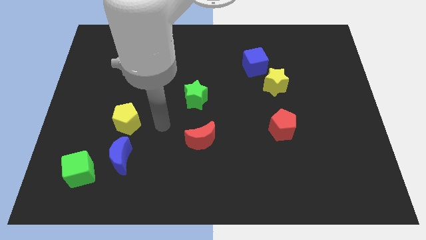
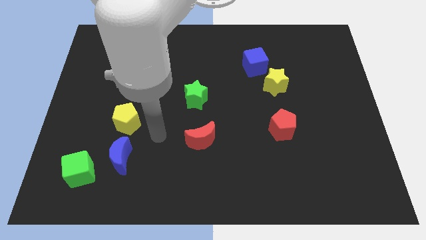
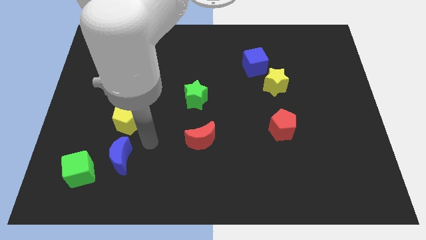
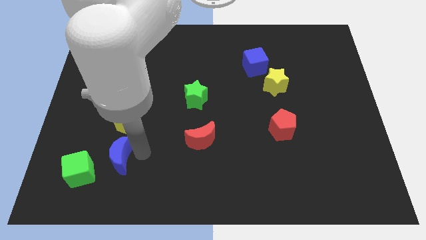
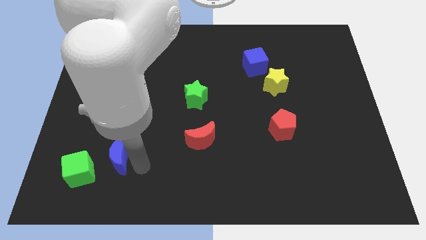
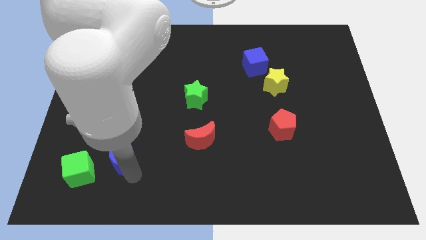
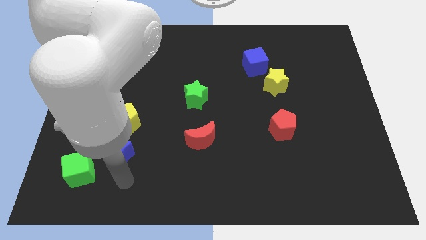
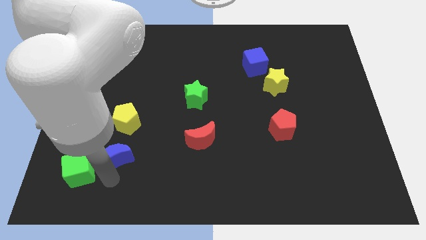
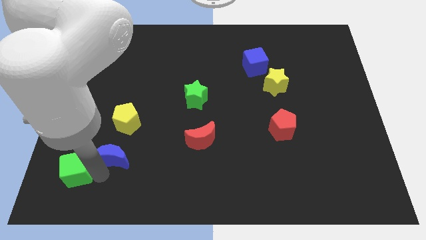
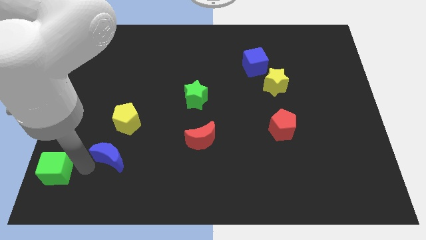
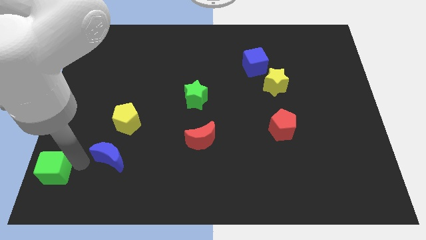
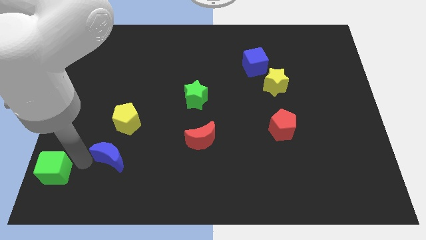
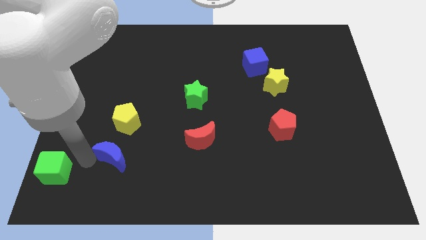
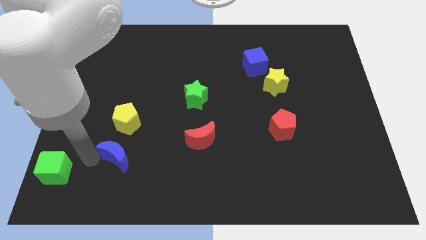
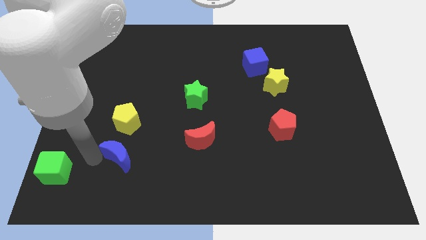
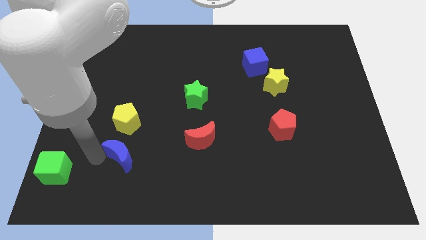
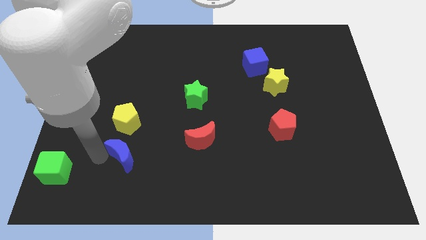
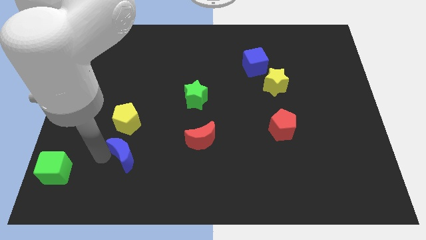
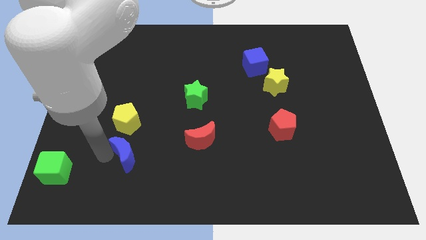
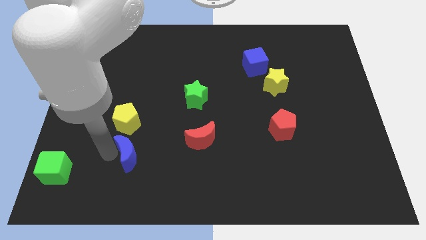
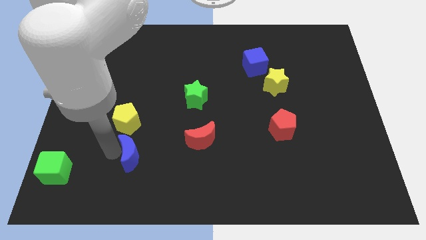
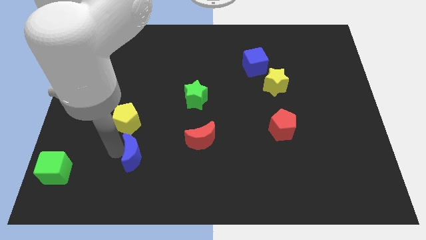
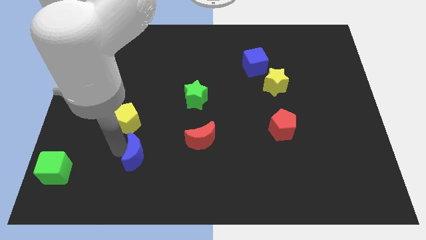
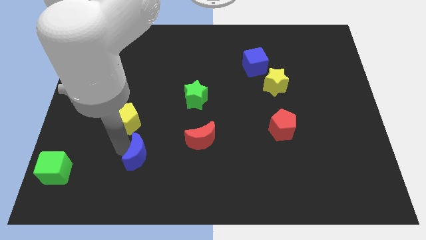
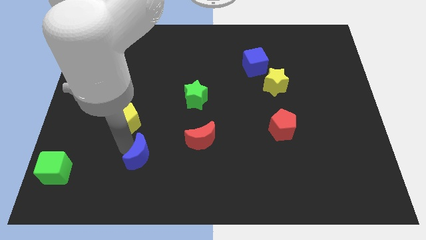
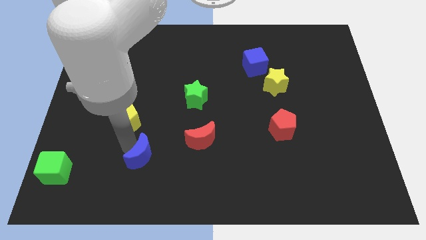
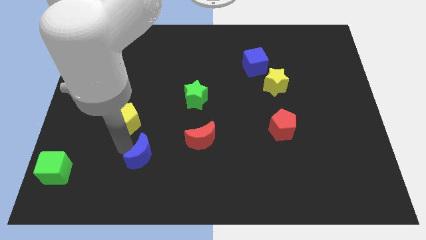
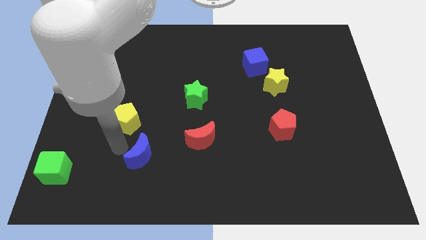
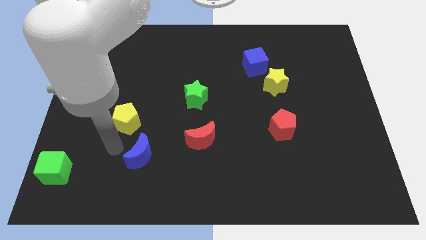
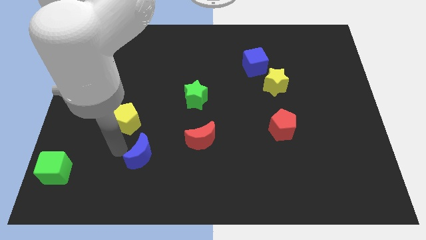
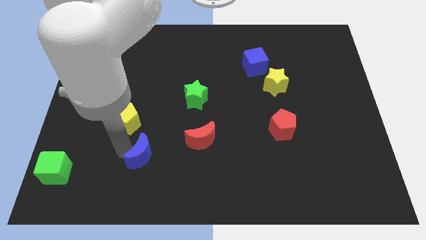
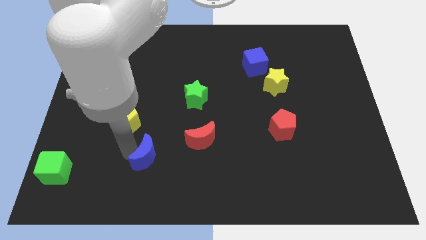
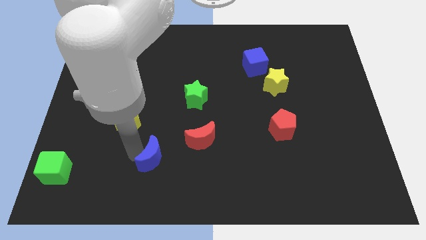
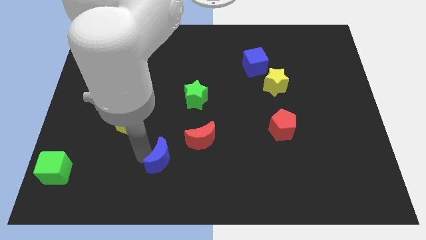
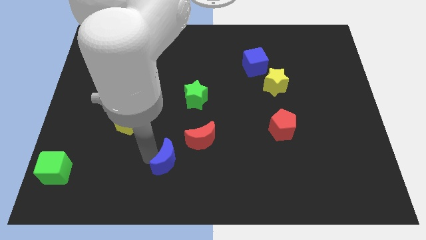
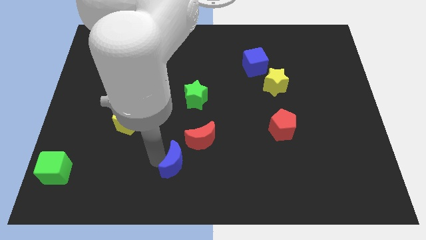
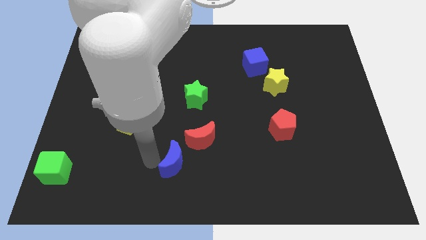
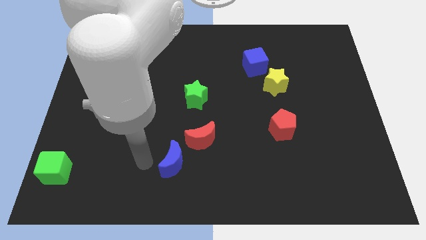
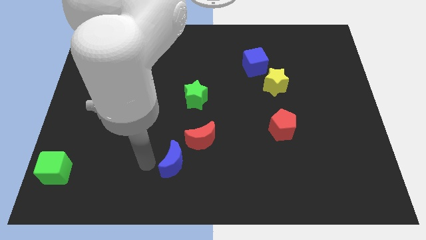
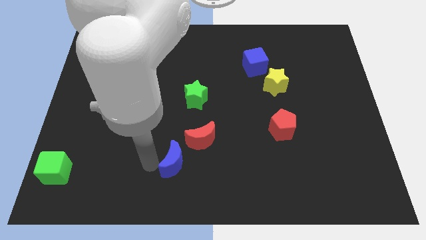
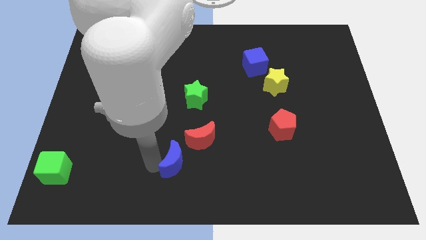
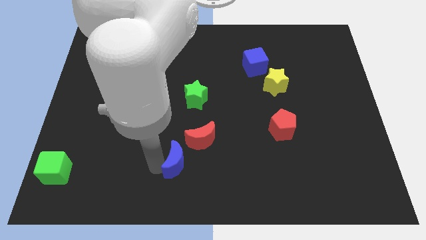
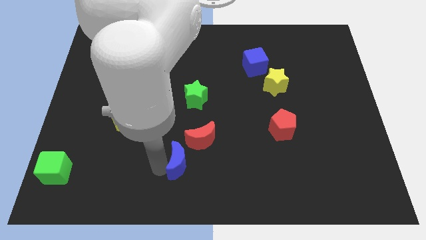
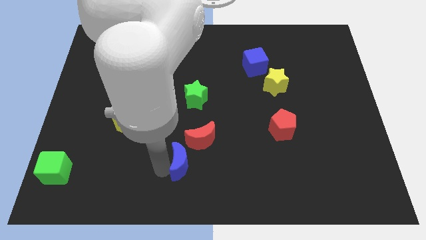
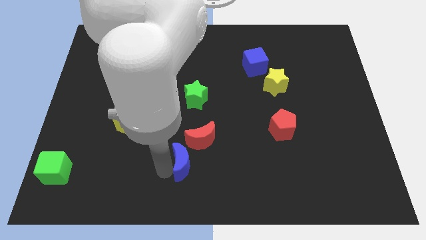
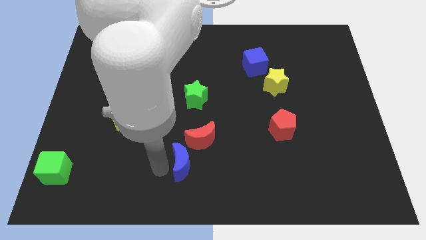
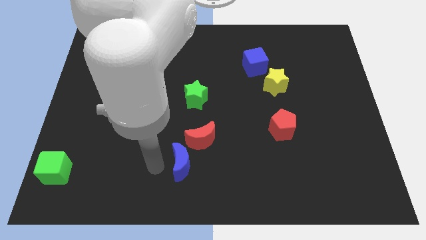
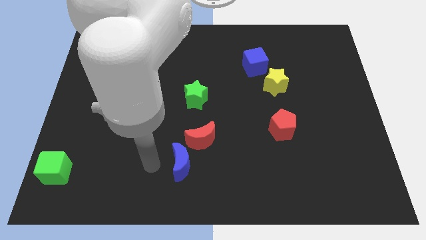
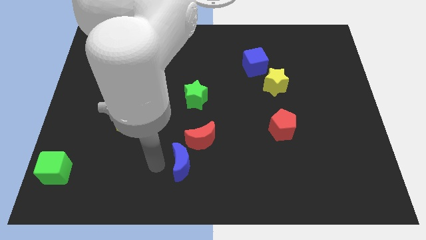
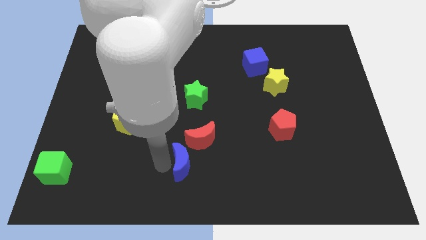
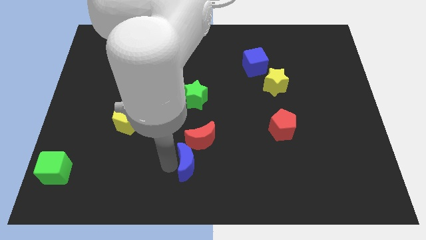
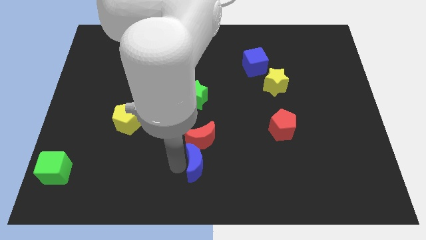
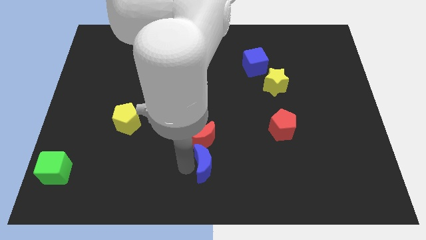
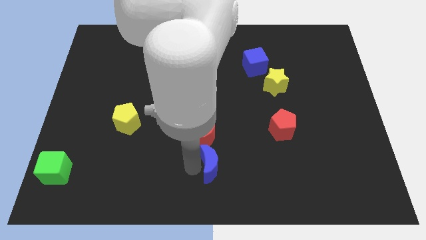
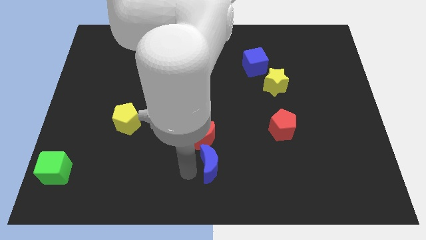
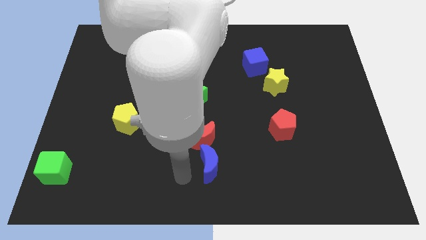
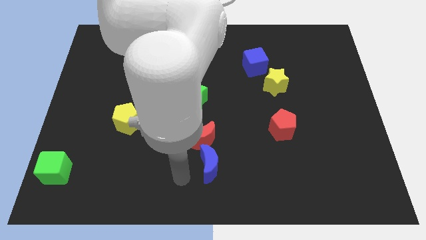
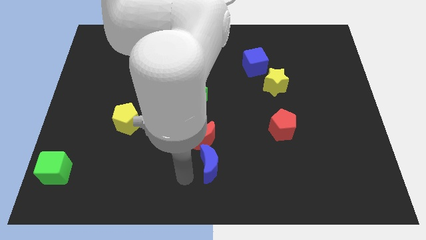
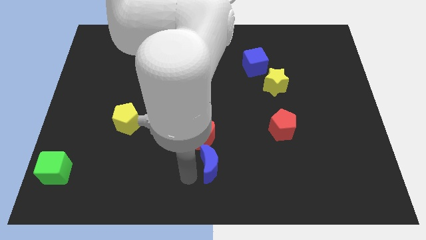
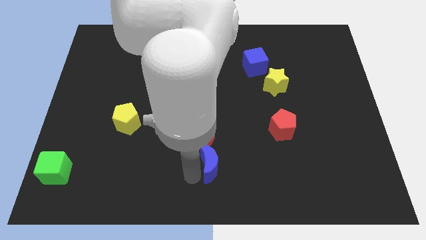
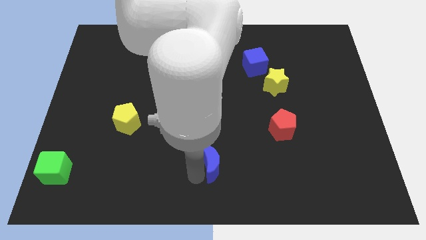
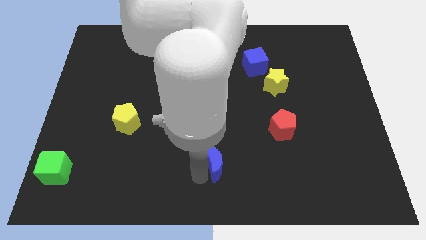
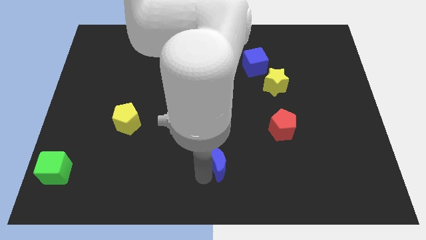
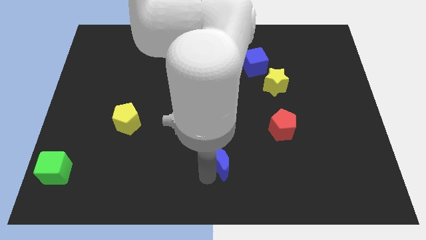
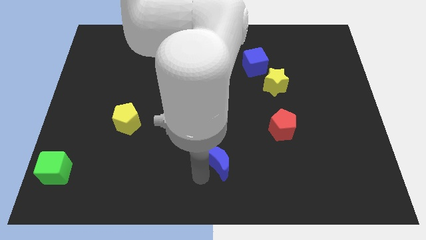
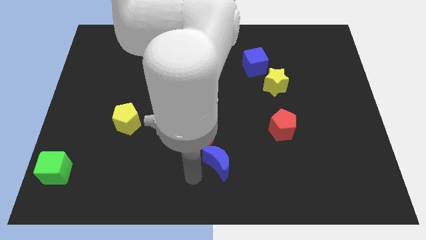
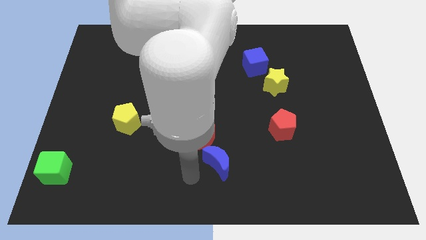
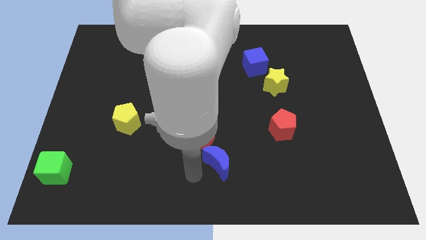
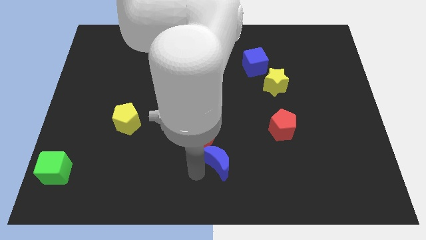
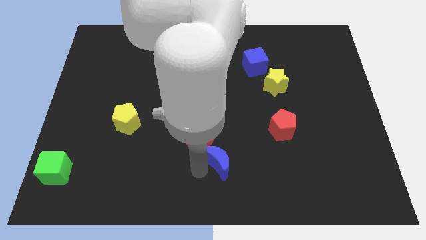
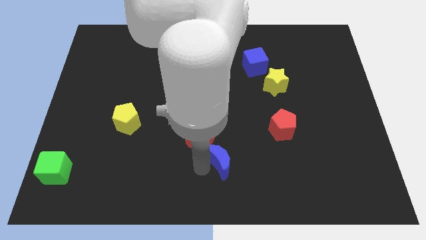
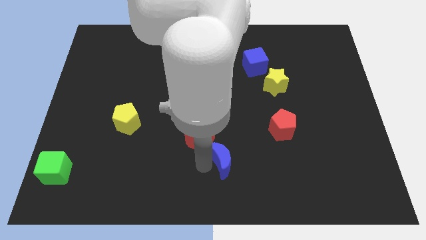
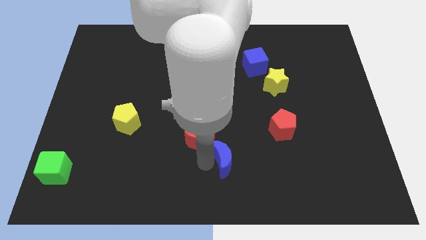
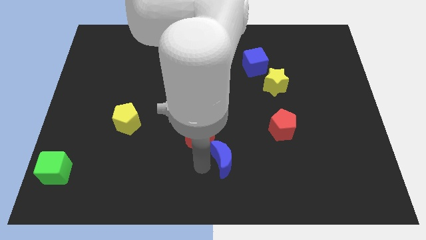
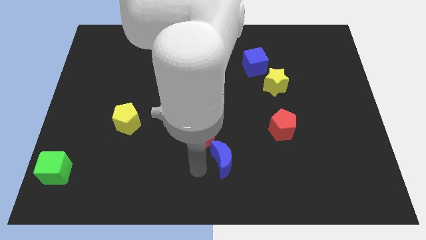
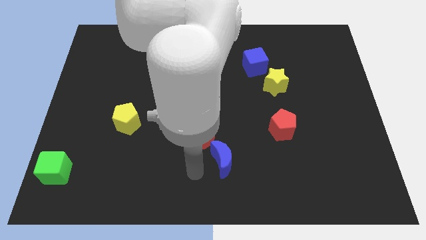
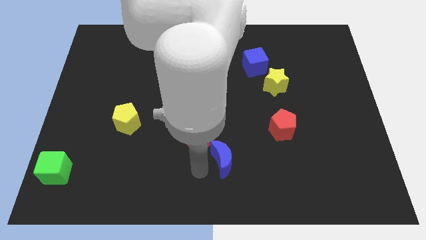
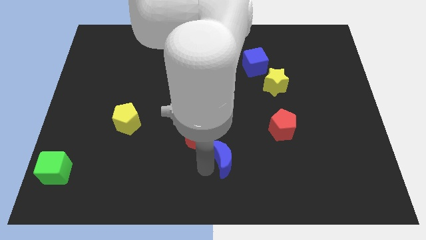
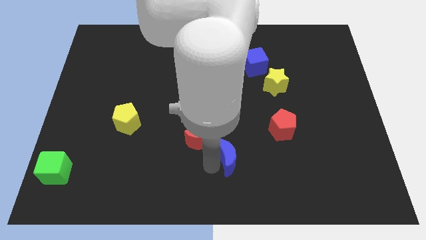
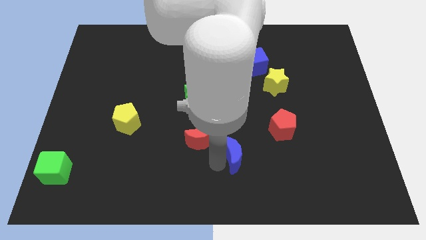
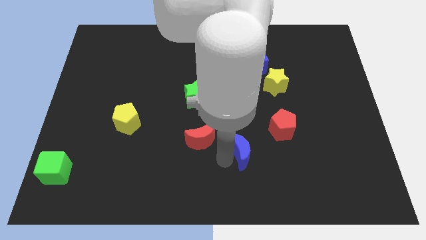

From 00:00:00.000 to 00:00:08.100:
put the blue moon to the bottom left side of the red pentagon
